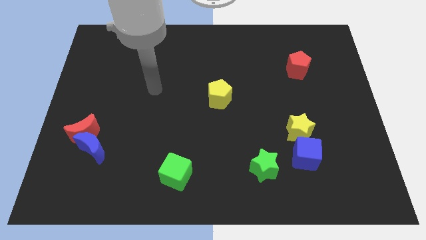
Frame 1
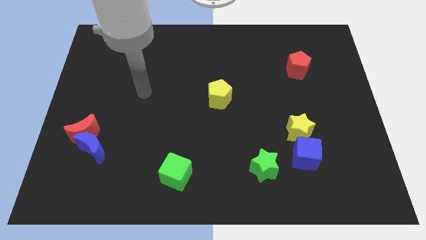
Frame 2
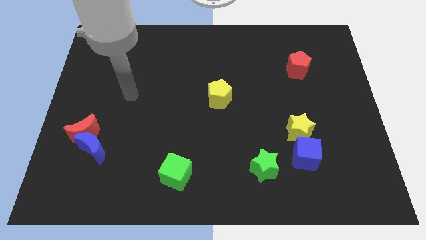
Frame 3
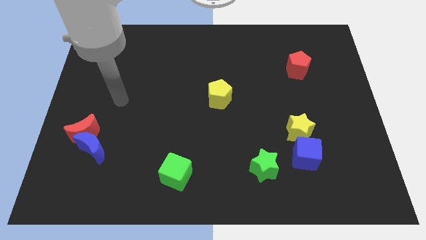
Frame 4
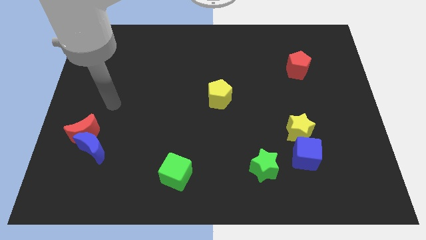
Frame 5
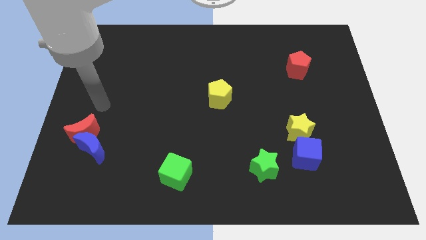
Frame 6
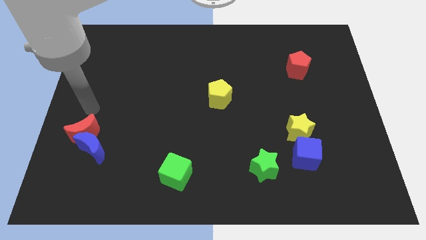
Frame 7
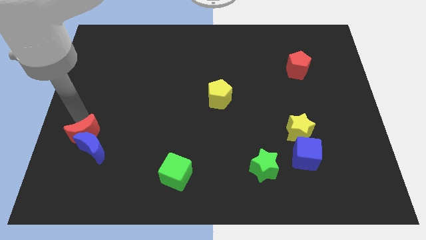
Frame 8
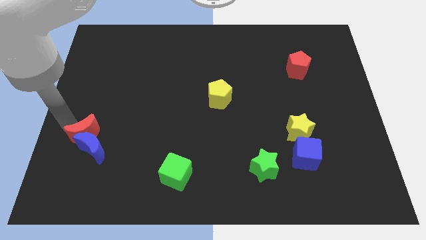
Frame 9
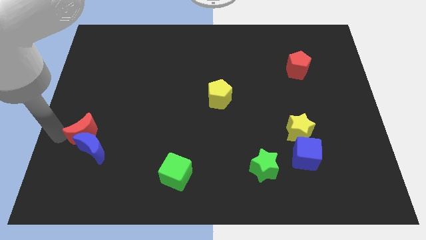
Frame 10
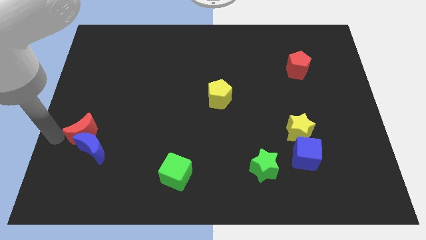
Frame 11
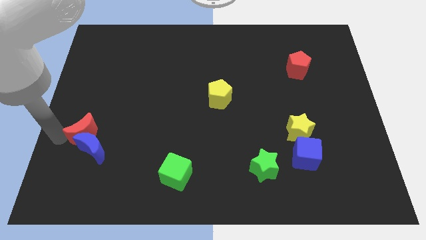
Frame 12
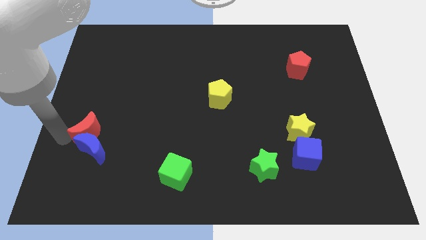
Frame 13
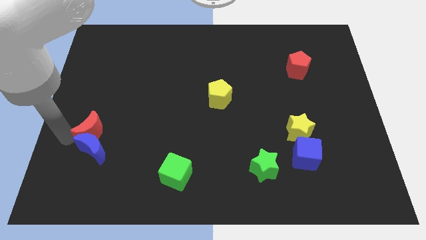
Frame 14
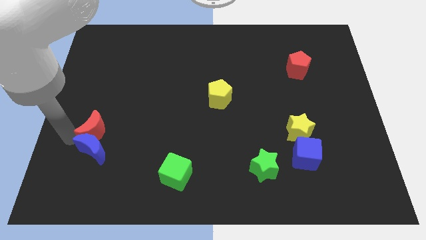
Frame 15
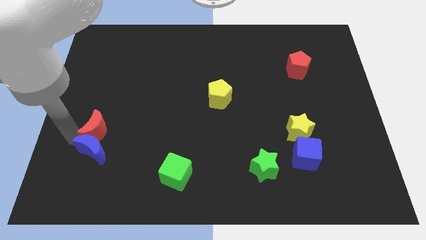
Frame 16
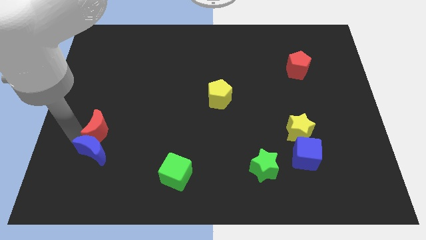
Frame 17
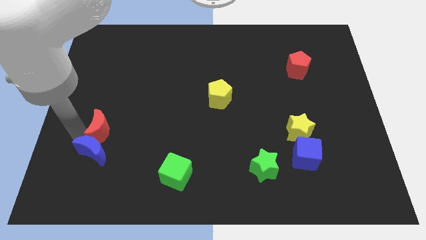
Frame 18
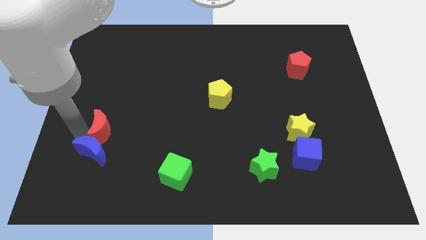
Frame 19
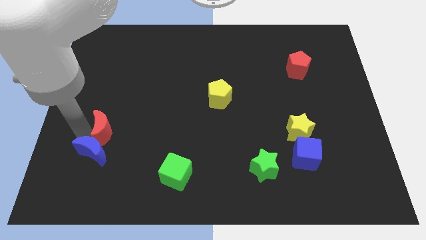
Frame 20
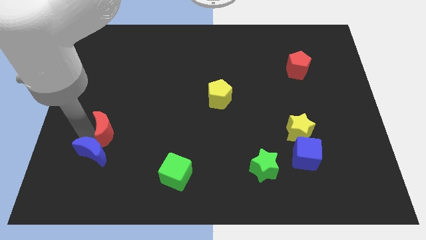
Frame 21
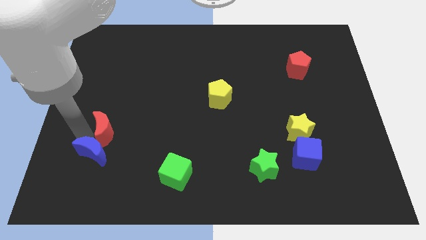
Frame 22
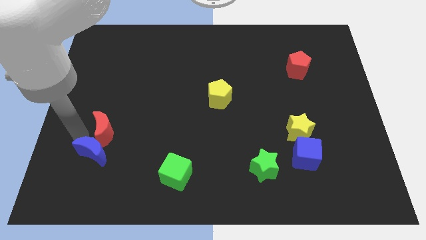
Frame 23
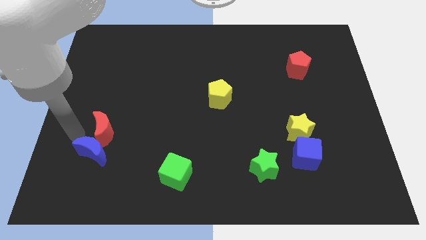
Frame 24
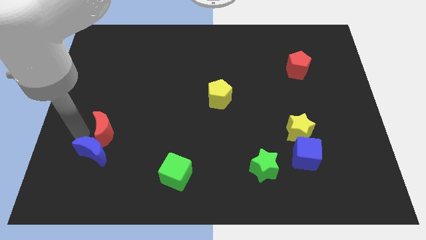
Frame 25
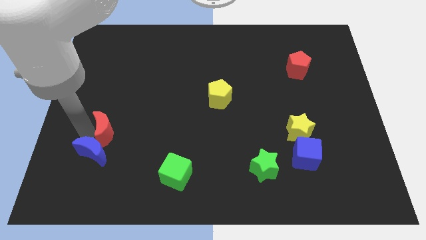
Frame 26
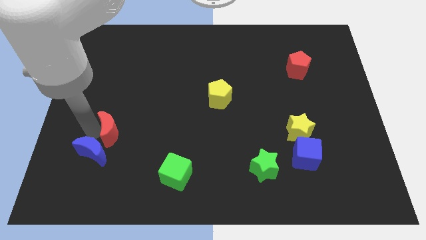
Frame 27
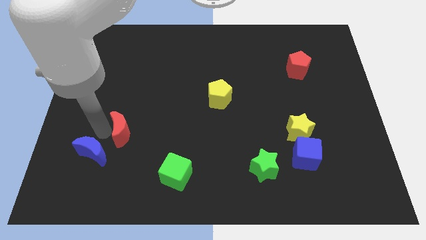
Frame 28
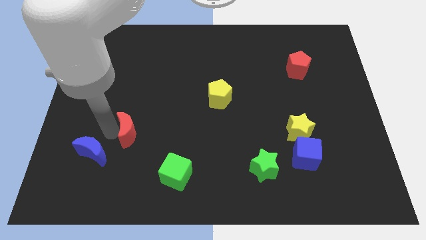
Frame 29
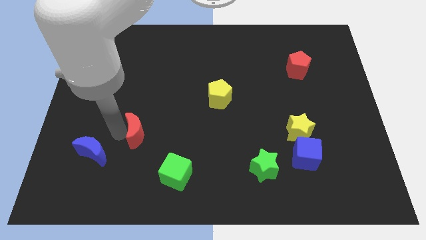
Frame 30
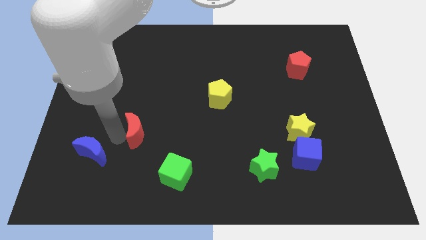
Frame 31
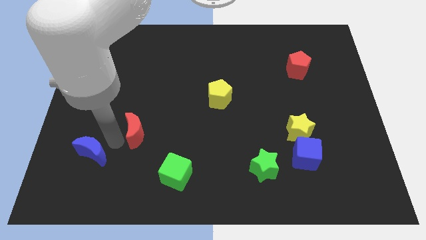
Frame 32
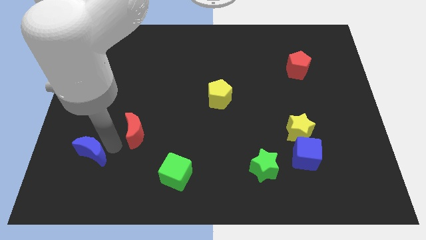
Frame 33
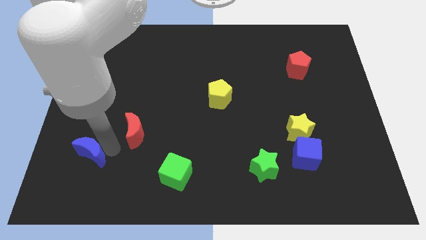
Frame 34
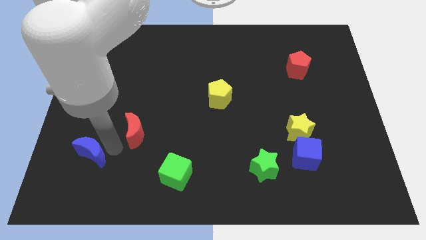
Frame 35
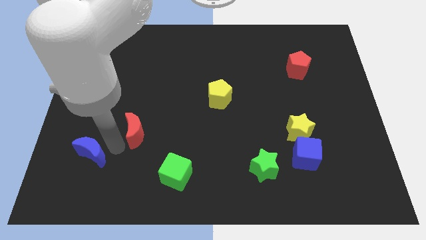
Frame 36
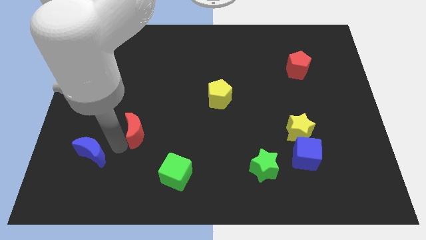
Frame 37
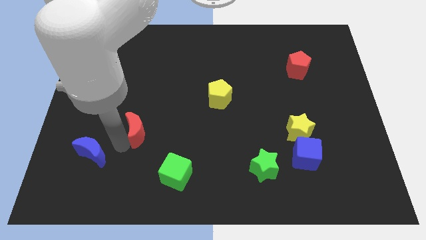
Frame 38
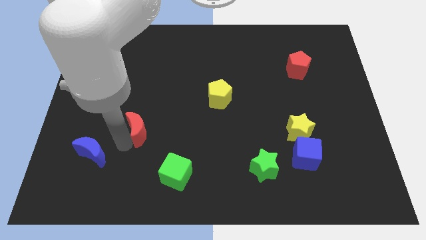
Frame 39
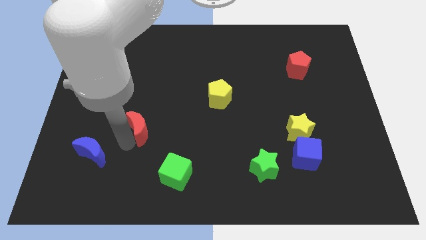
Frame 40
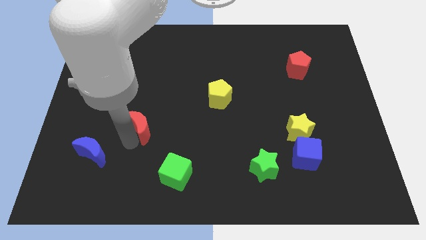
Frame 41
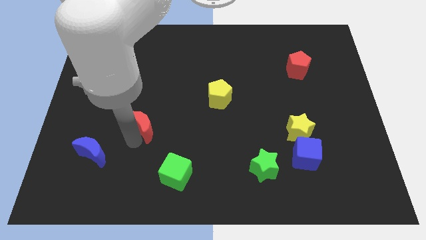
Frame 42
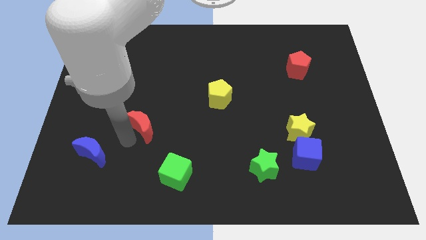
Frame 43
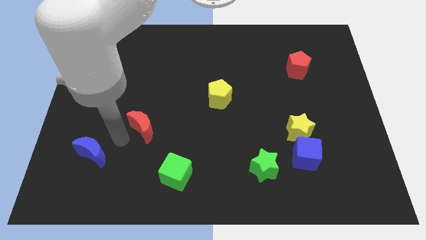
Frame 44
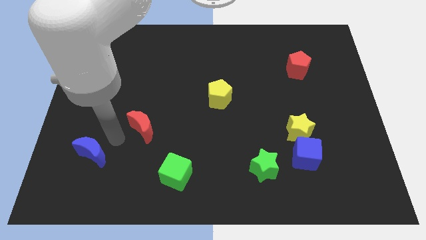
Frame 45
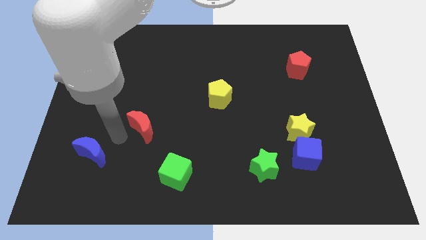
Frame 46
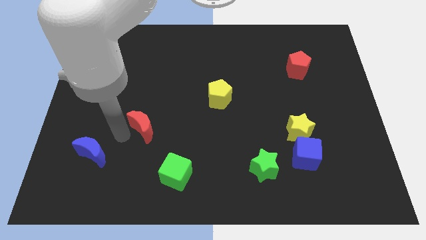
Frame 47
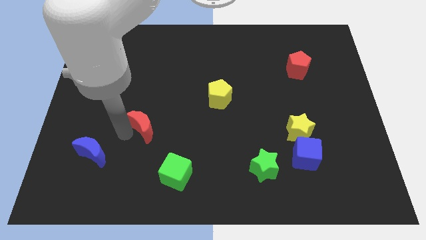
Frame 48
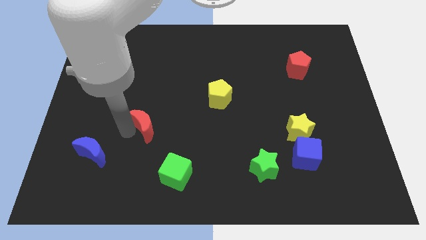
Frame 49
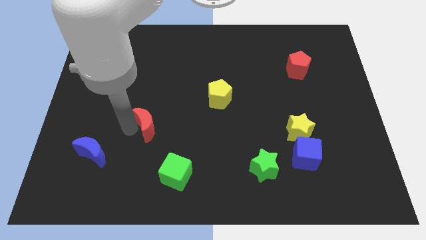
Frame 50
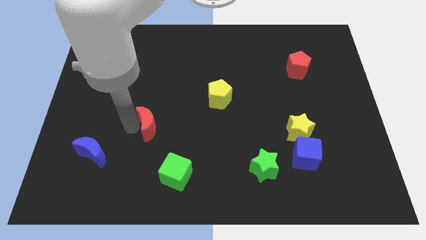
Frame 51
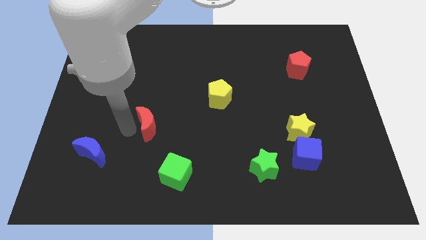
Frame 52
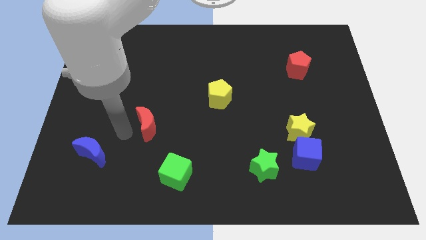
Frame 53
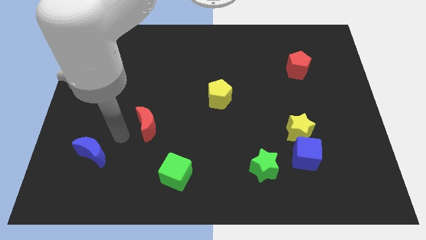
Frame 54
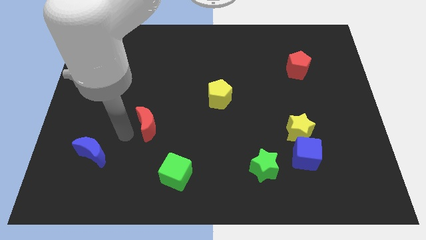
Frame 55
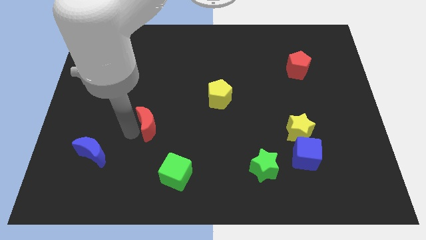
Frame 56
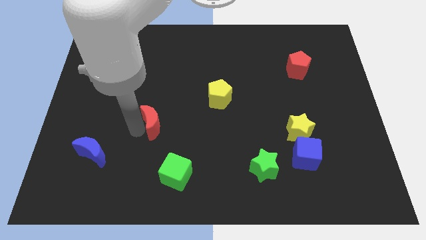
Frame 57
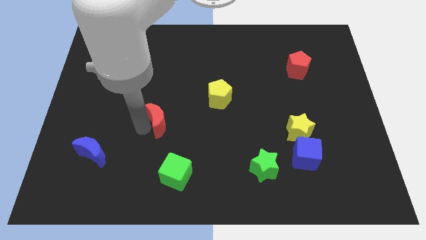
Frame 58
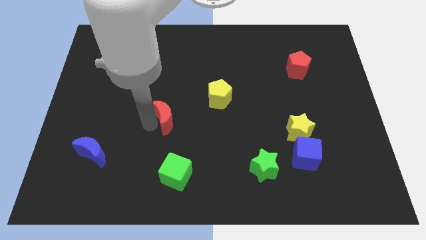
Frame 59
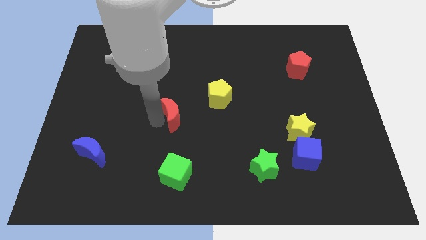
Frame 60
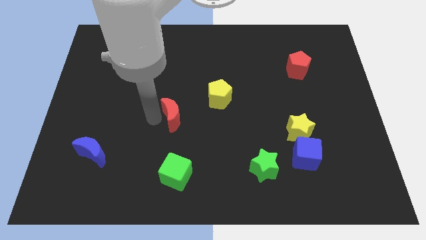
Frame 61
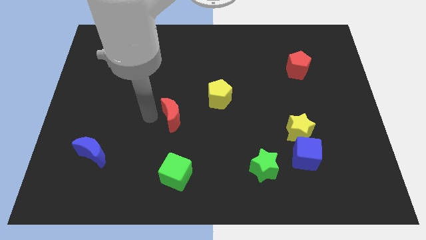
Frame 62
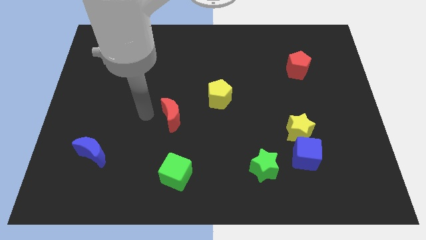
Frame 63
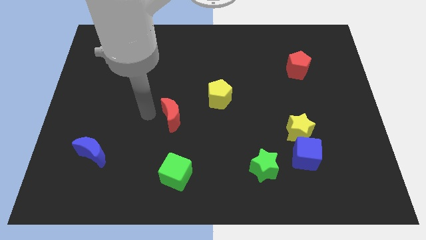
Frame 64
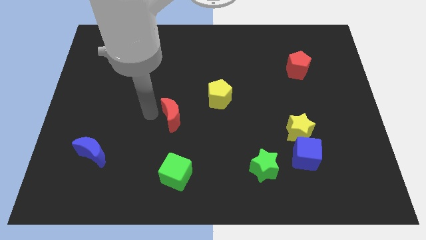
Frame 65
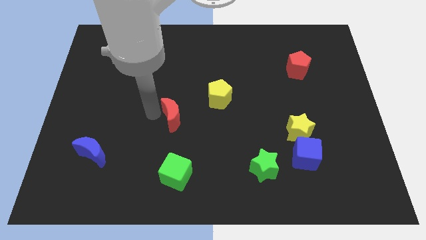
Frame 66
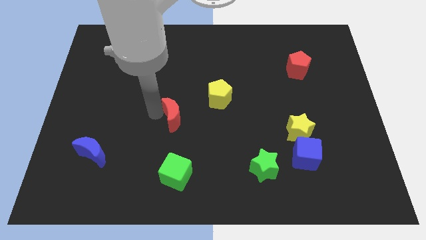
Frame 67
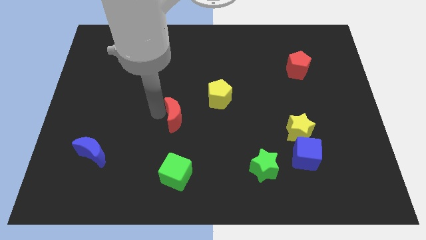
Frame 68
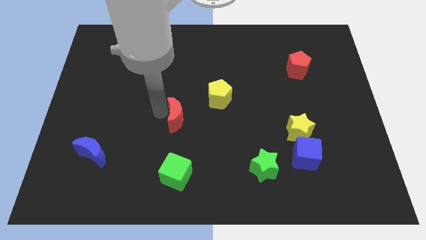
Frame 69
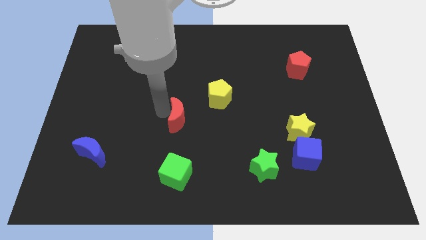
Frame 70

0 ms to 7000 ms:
move the red moon to the right

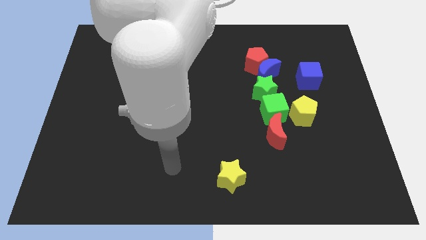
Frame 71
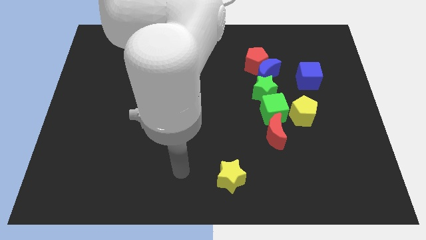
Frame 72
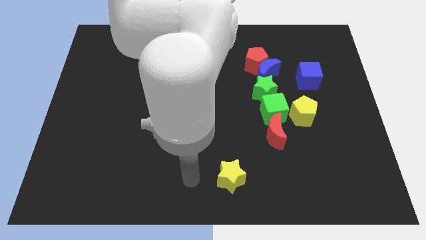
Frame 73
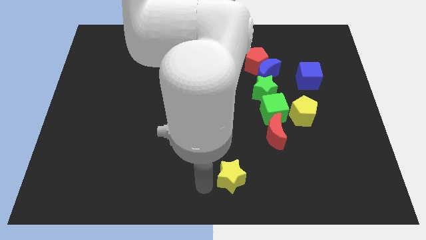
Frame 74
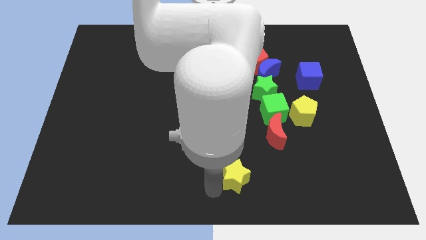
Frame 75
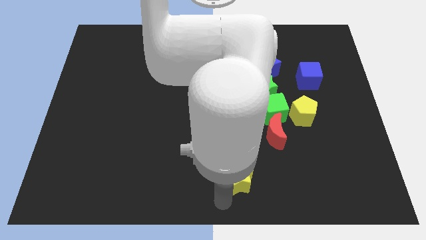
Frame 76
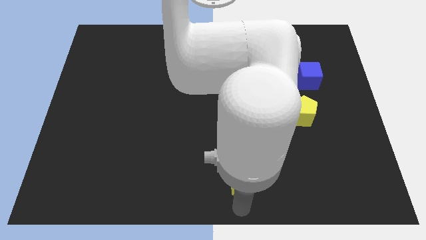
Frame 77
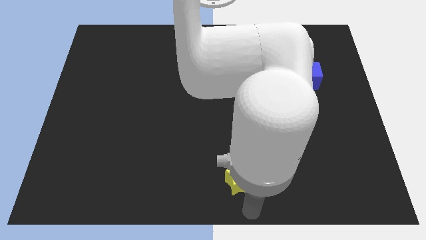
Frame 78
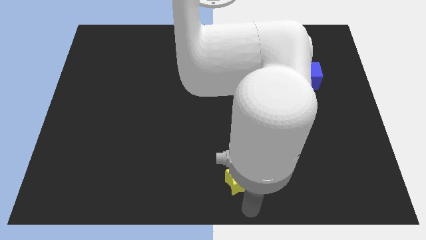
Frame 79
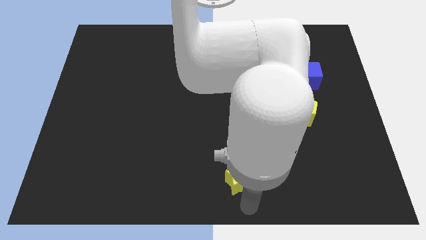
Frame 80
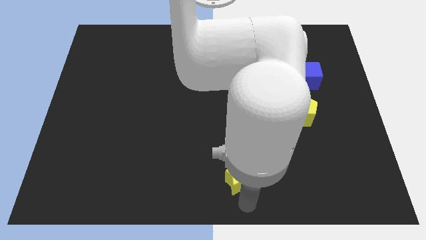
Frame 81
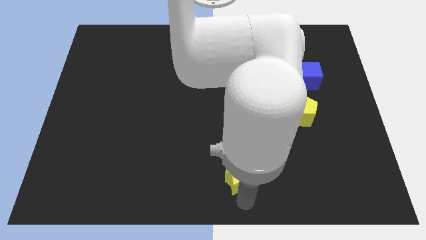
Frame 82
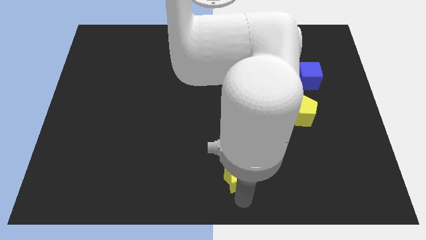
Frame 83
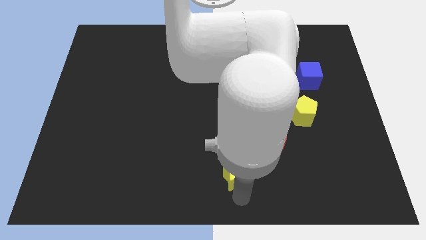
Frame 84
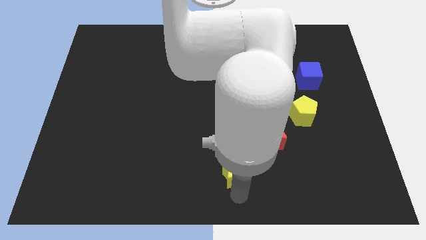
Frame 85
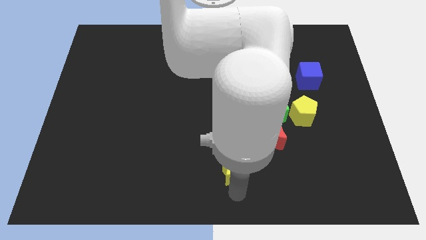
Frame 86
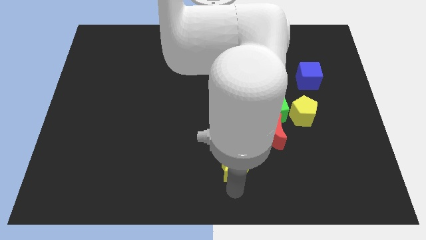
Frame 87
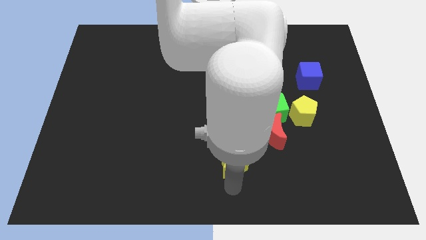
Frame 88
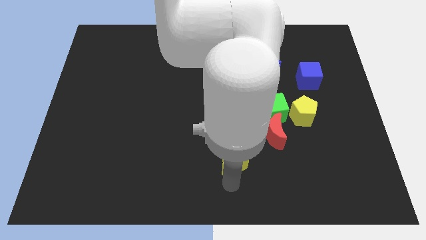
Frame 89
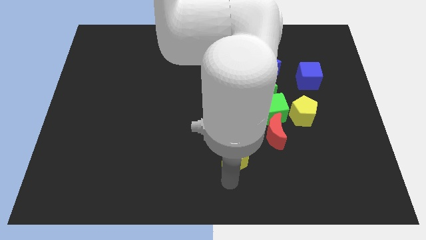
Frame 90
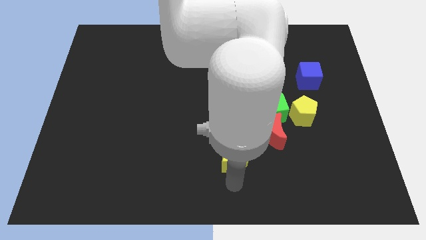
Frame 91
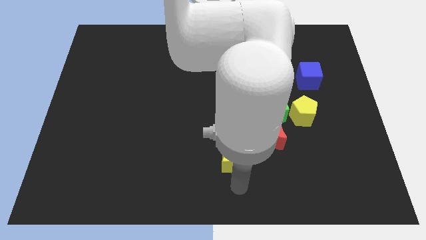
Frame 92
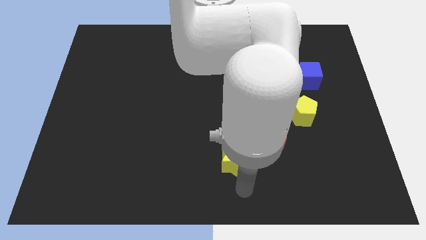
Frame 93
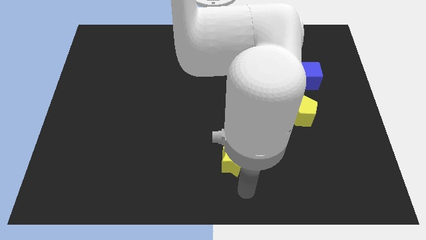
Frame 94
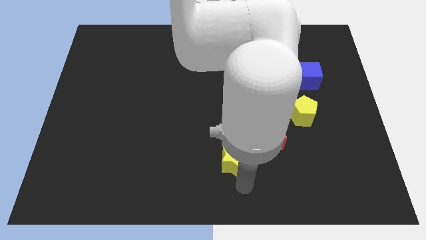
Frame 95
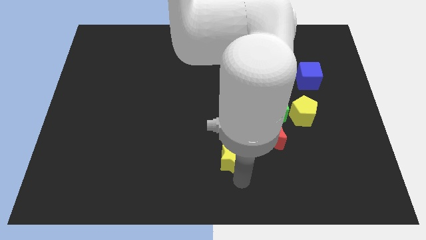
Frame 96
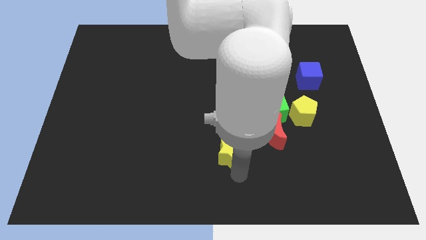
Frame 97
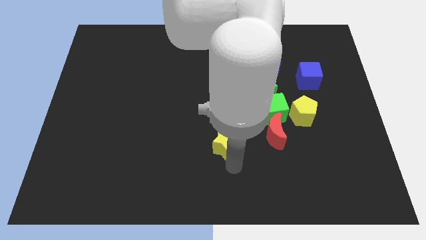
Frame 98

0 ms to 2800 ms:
slightly push the yellow star up
